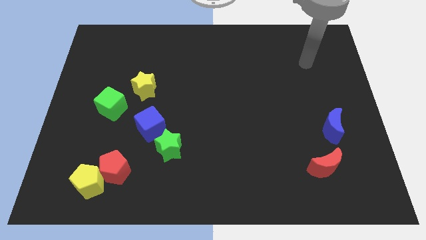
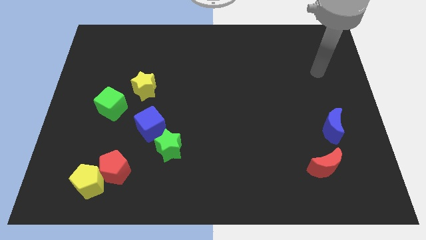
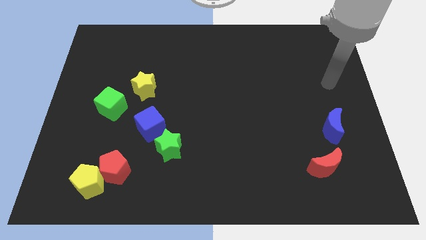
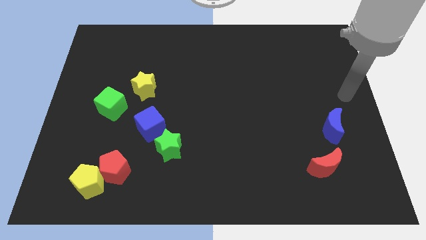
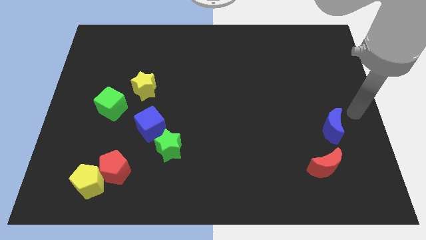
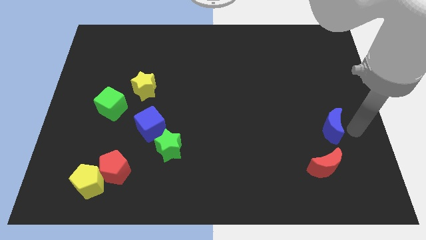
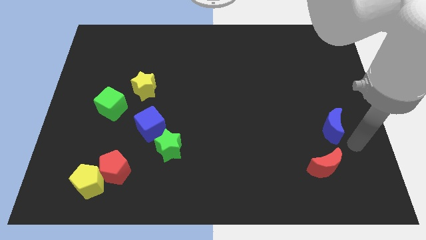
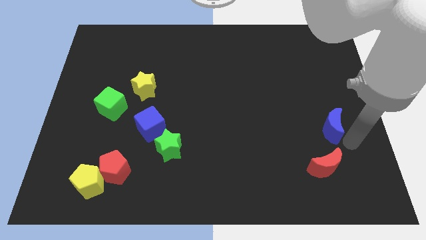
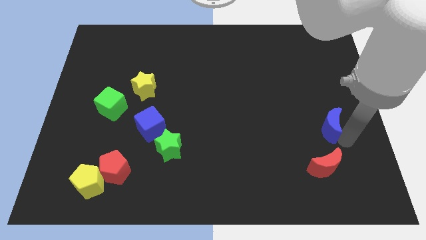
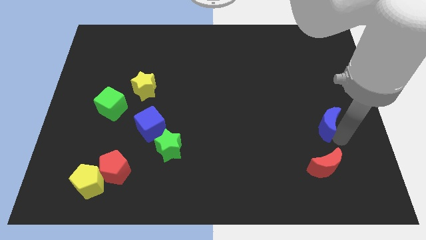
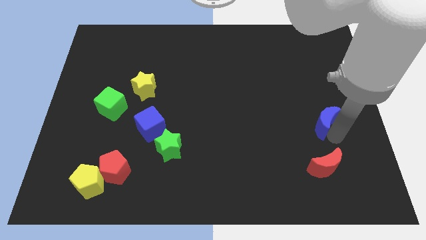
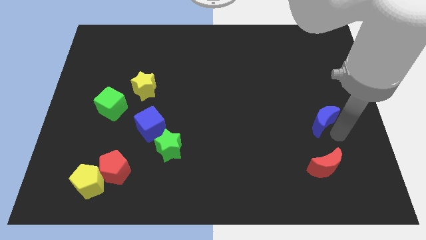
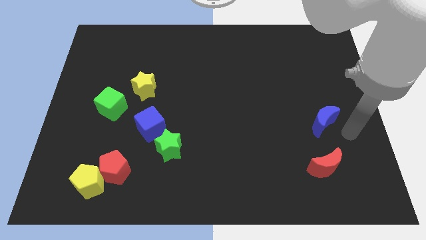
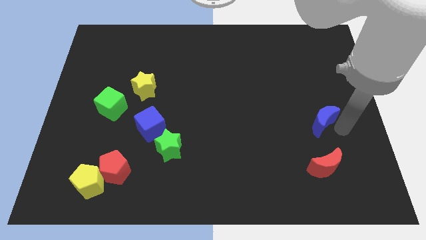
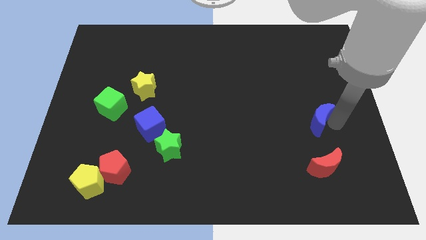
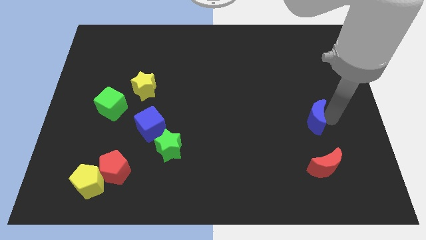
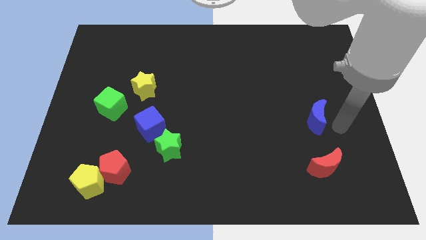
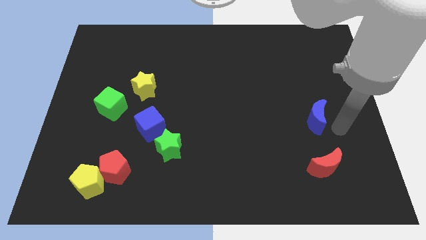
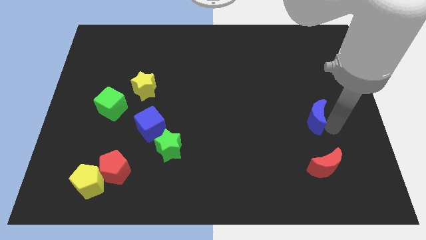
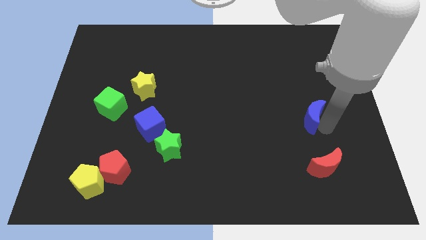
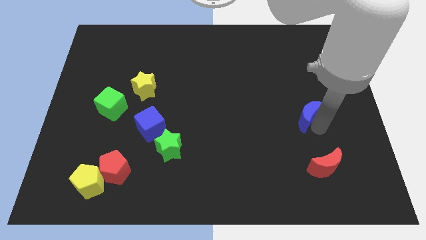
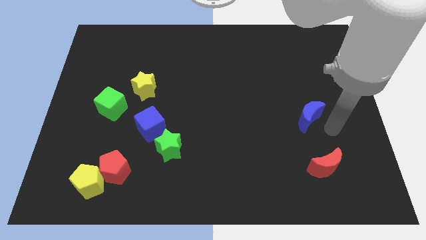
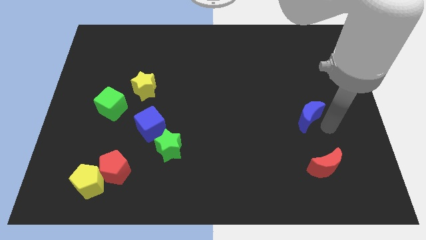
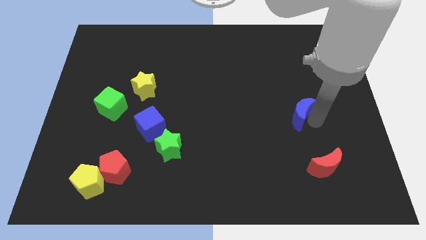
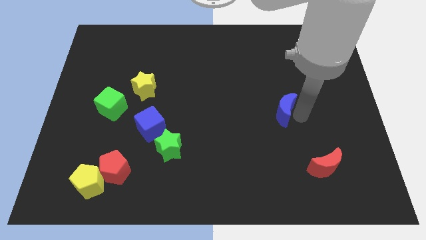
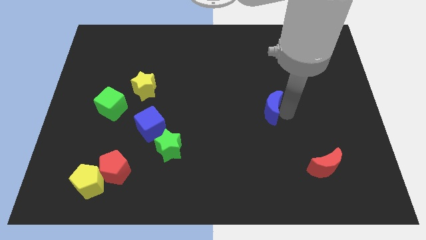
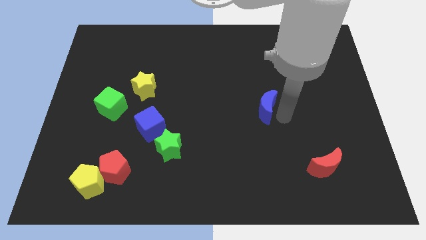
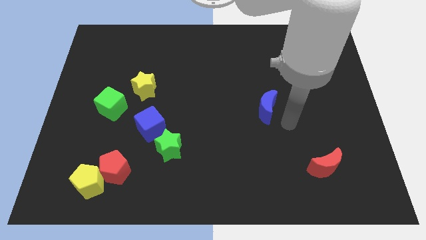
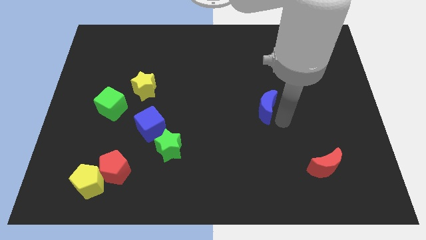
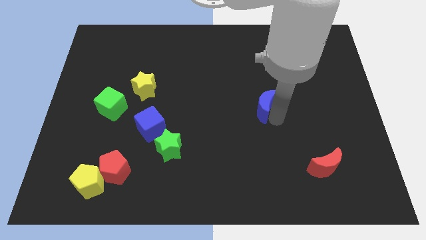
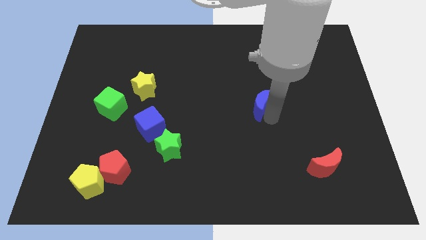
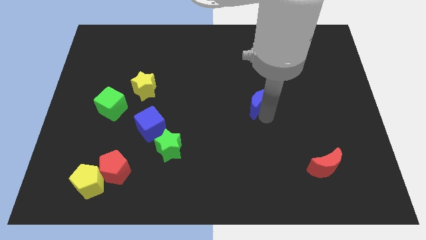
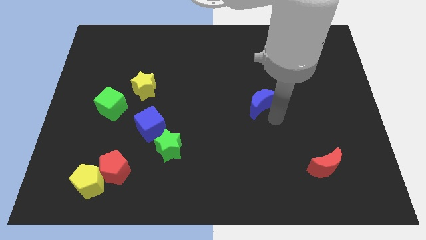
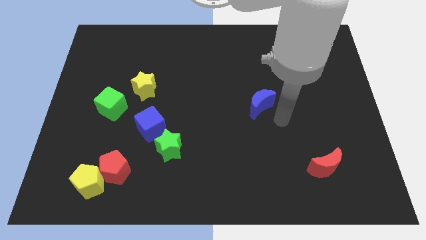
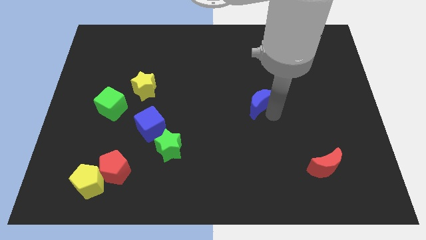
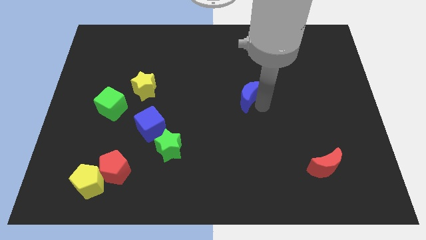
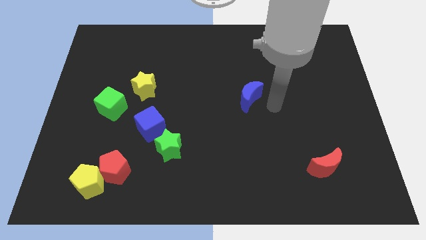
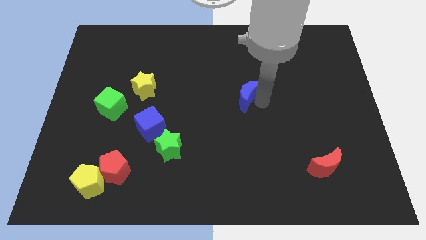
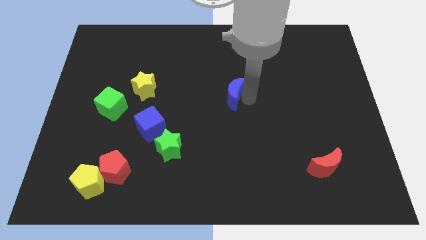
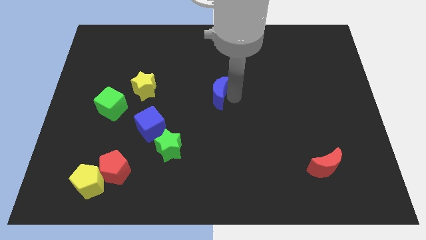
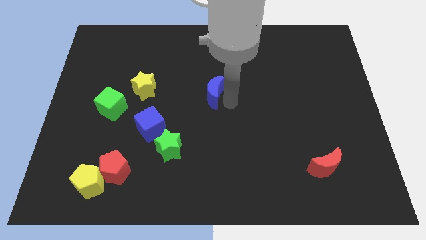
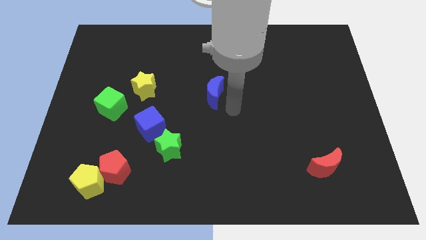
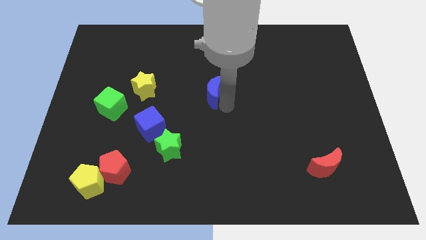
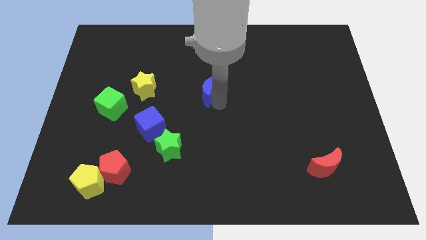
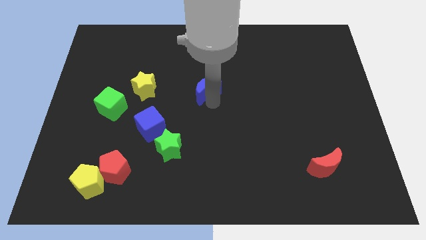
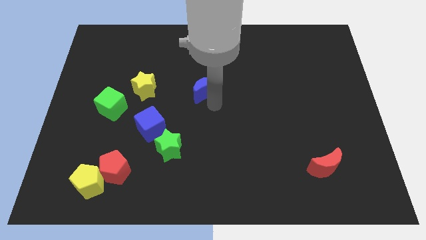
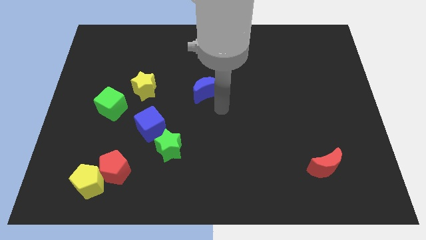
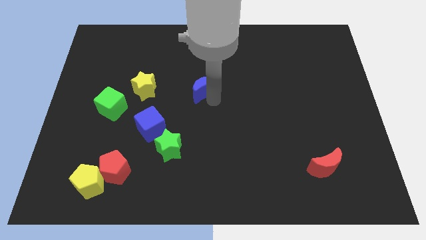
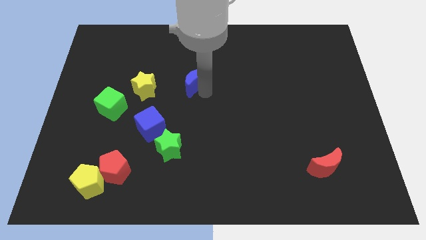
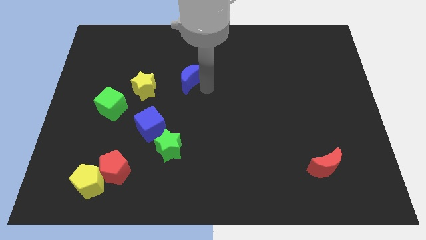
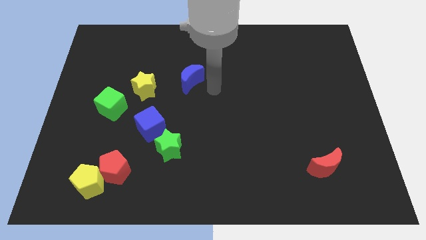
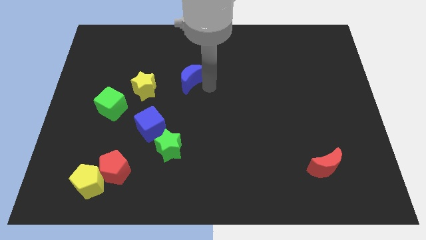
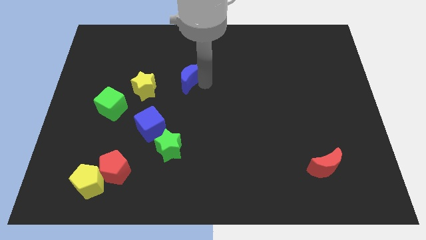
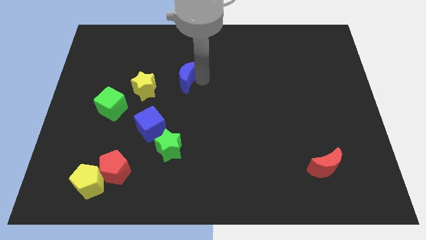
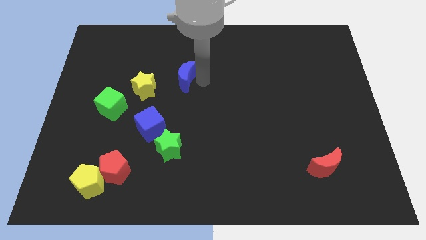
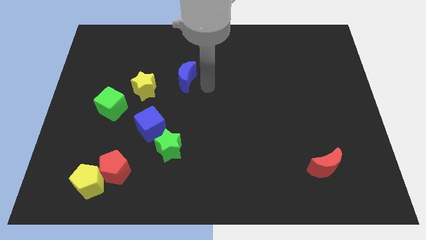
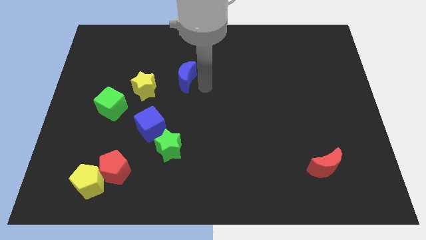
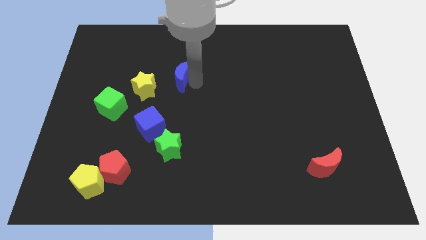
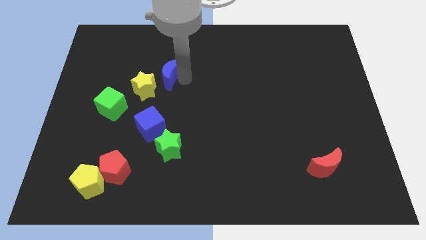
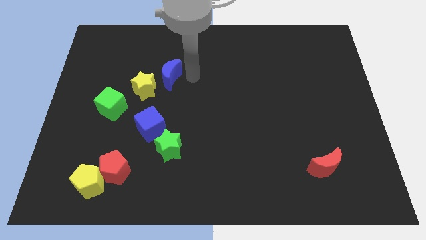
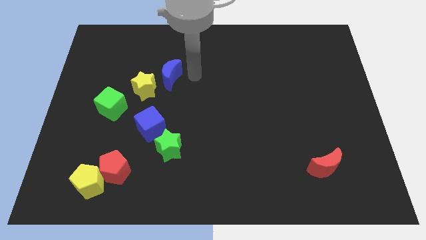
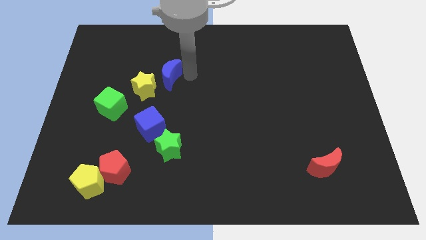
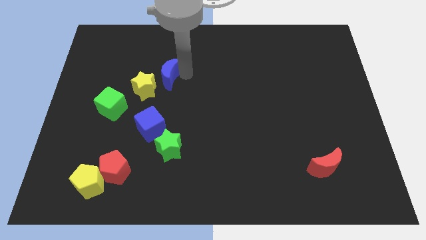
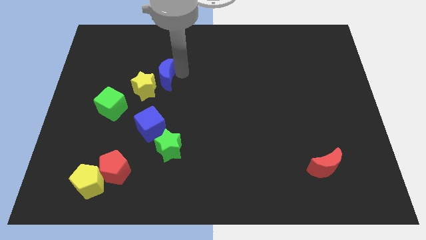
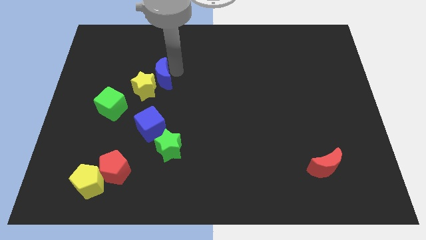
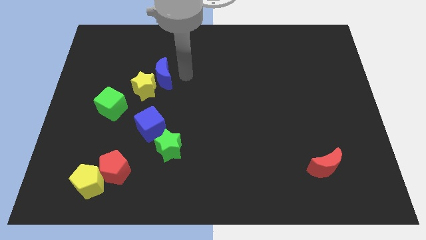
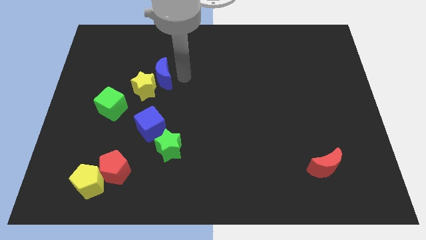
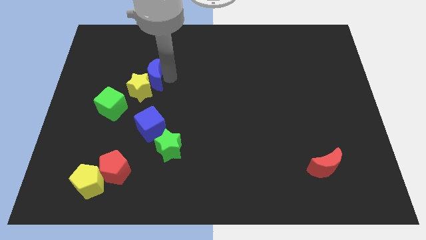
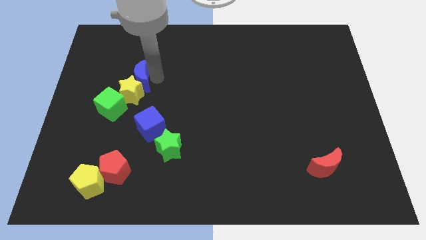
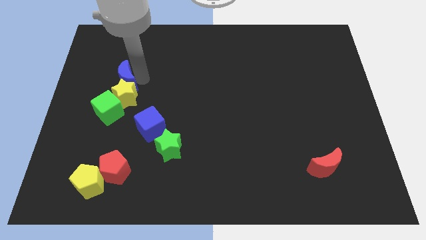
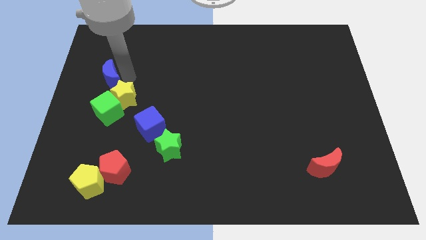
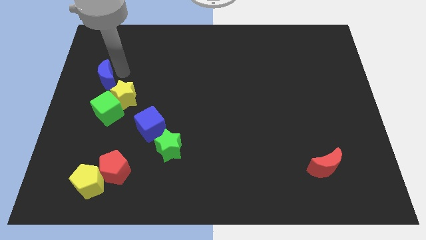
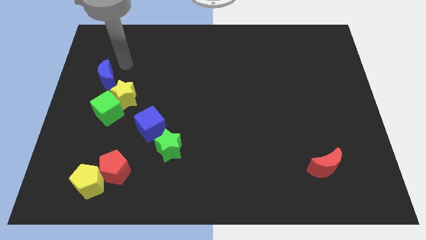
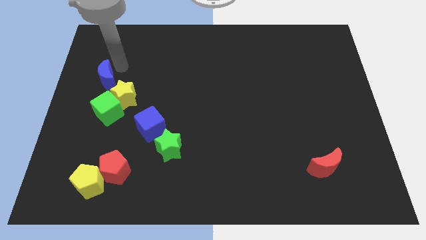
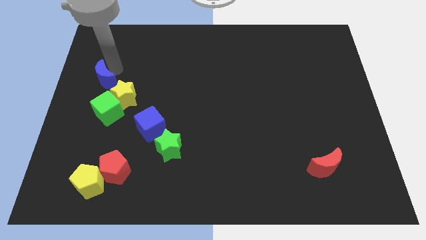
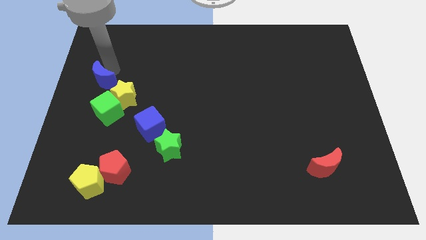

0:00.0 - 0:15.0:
push the blue moon diagonally up and to the left of the green cube
